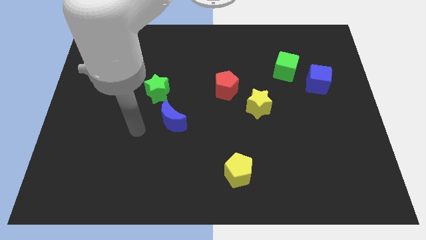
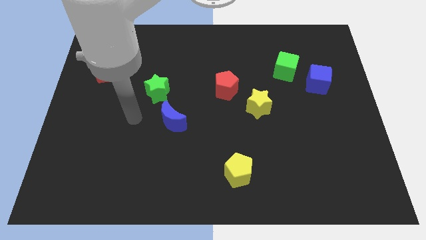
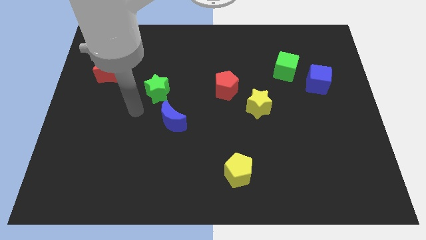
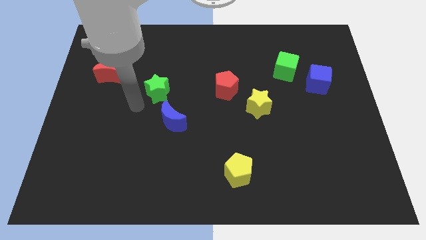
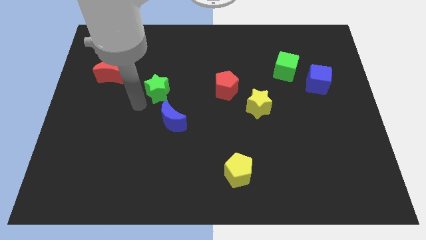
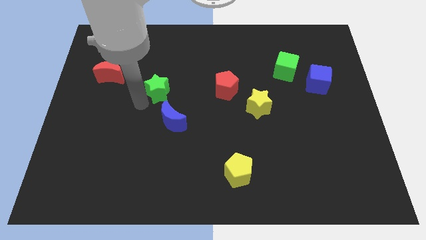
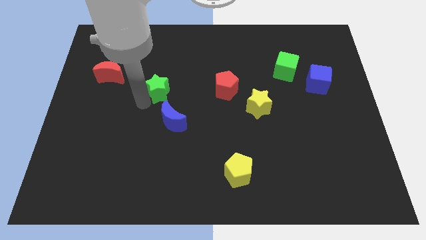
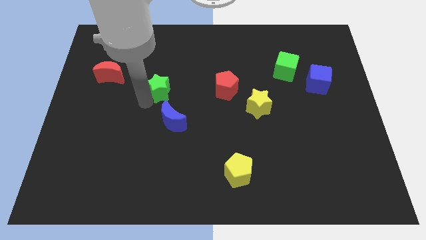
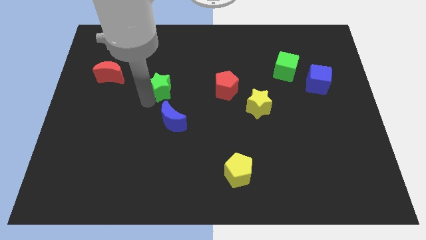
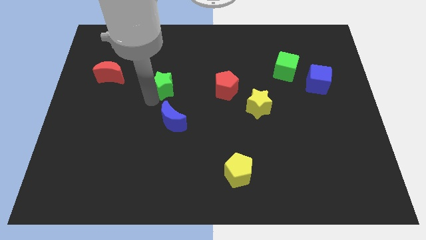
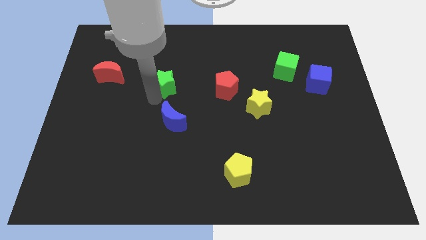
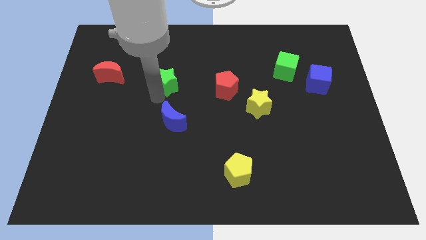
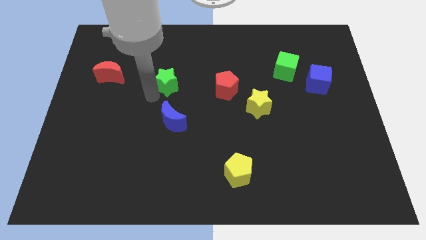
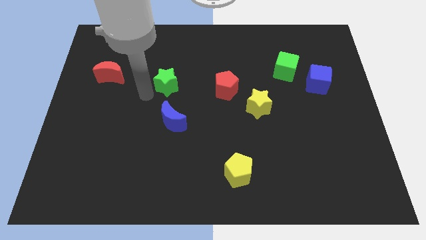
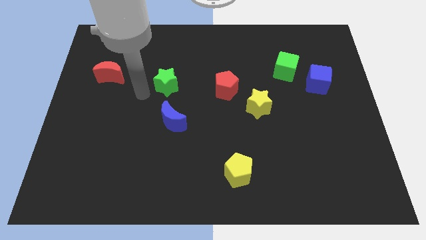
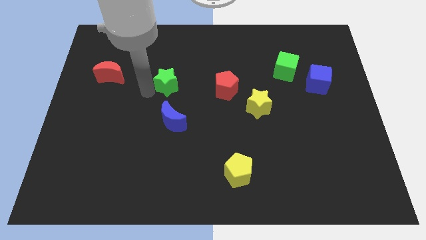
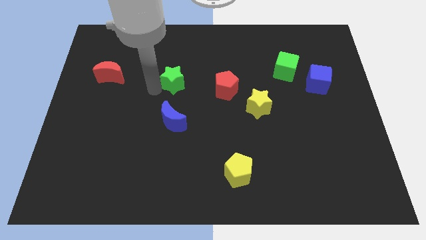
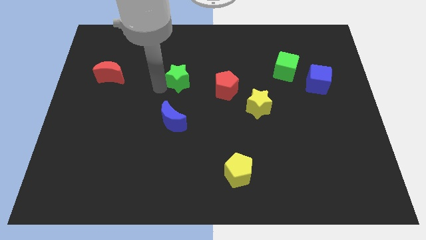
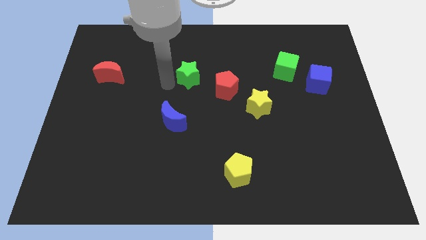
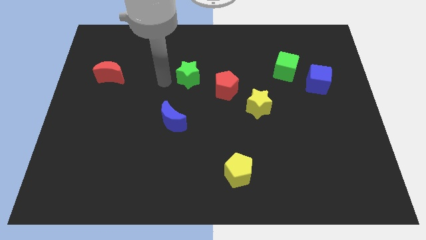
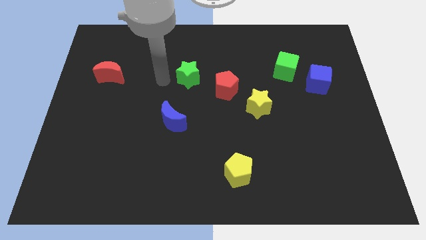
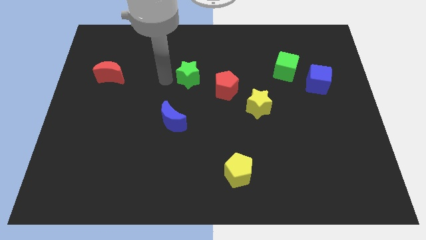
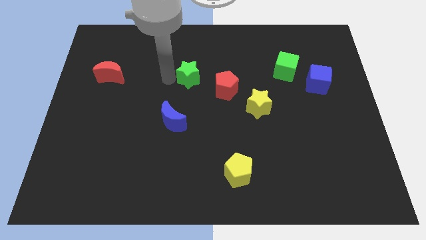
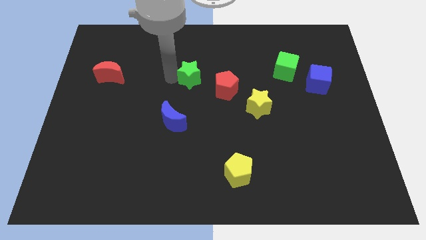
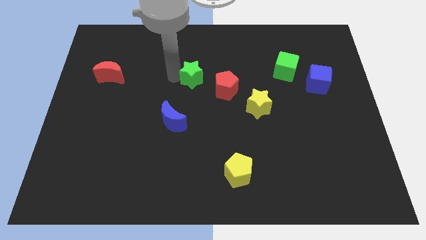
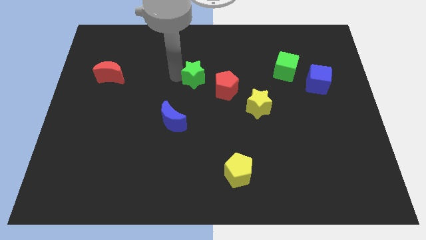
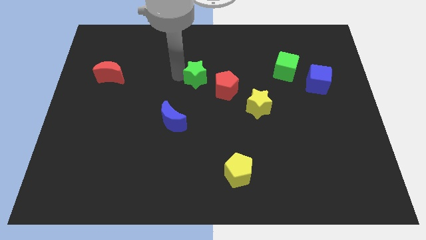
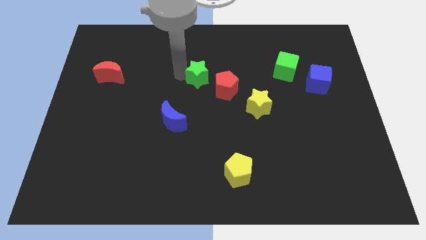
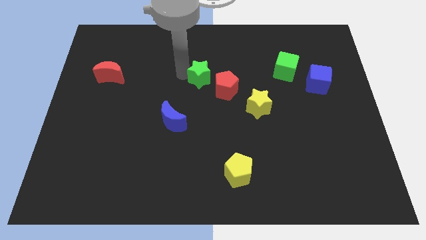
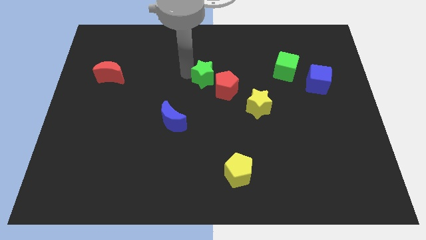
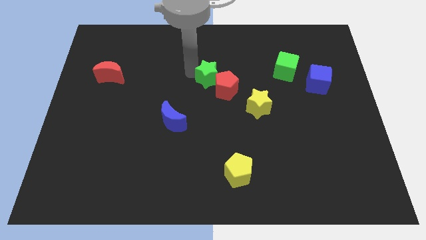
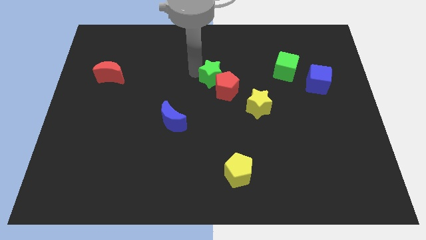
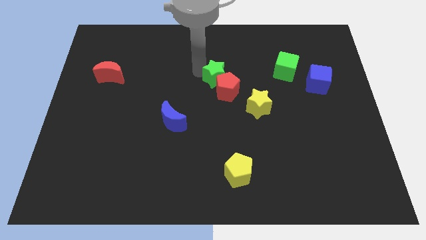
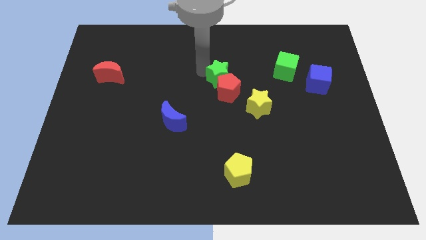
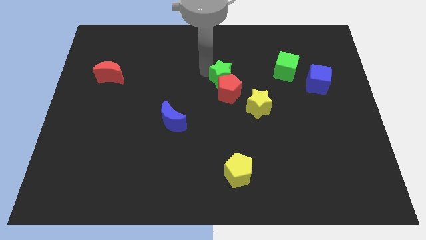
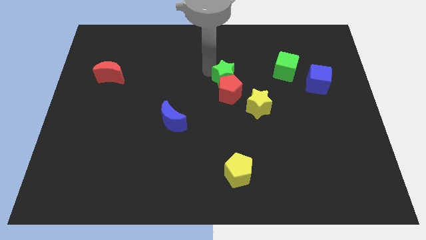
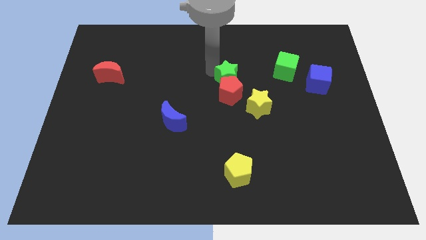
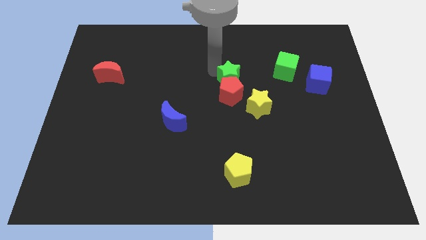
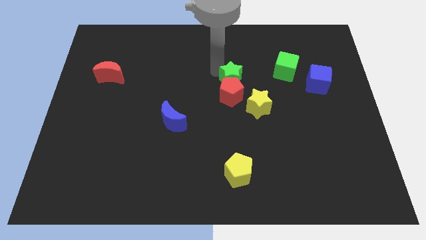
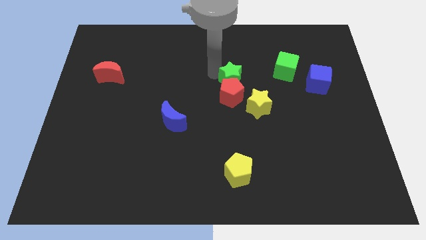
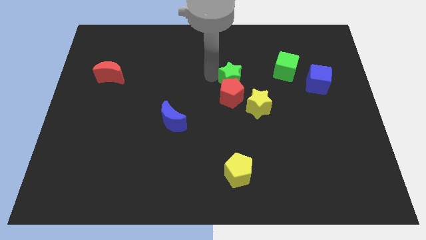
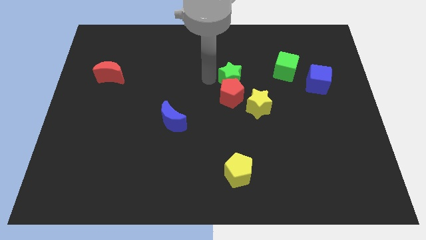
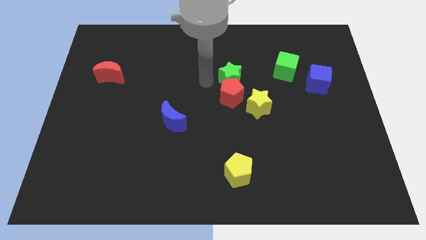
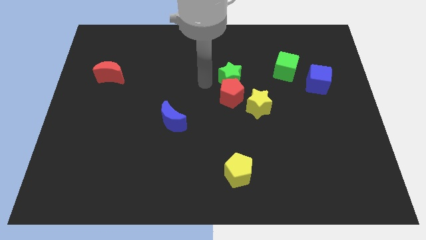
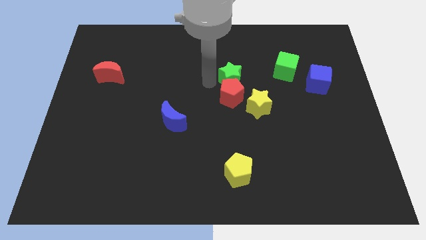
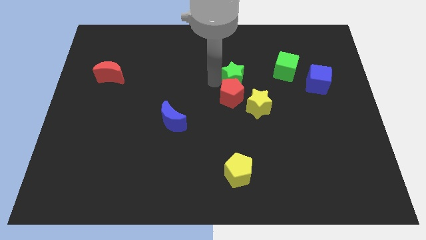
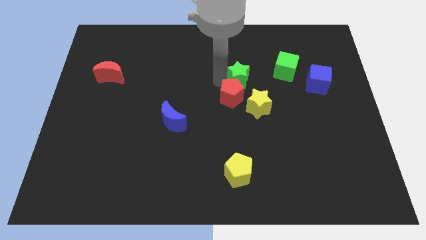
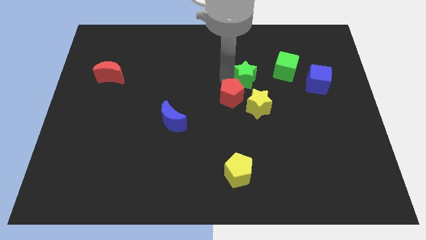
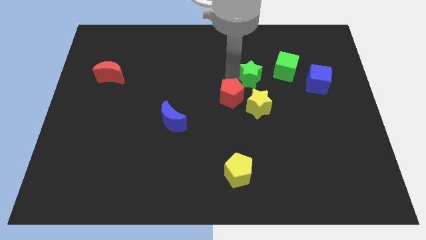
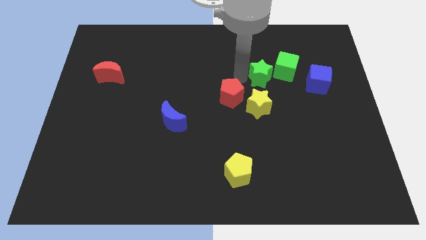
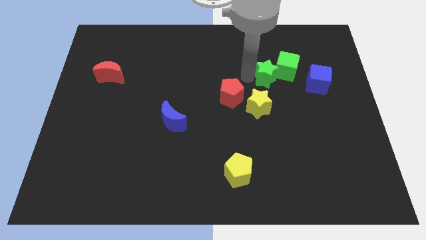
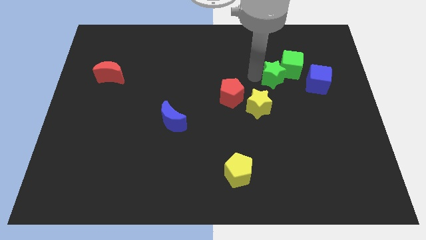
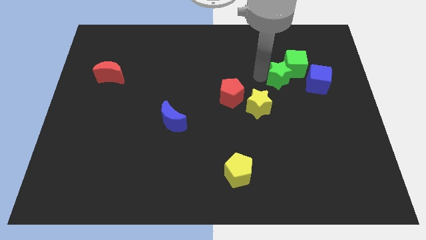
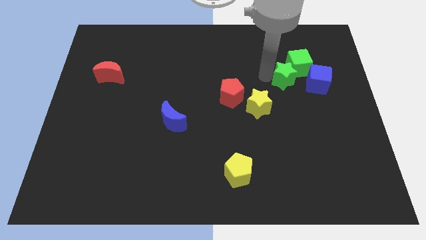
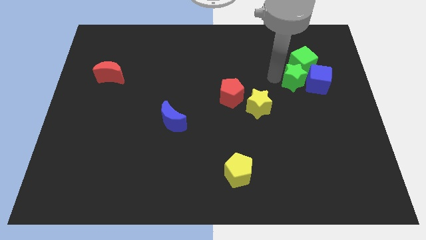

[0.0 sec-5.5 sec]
put the green star towards the blue cube

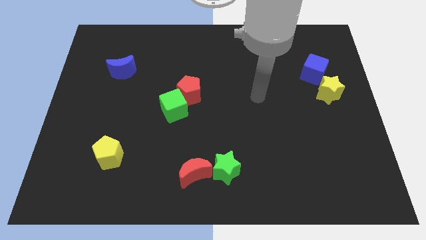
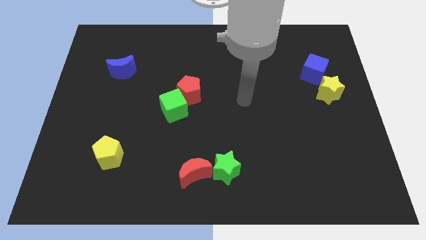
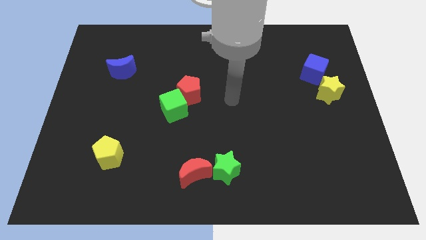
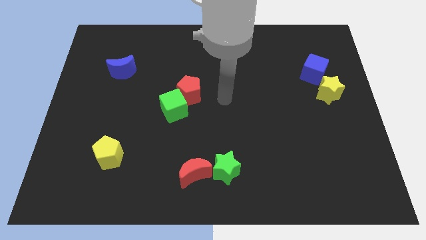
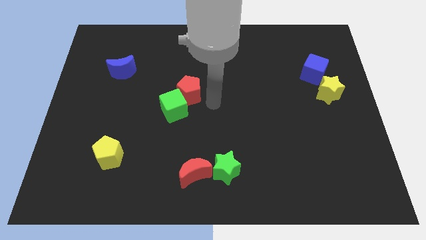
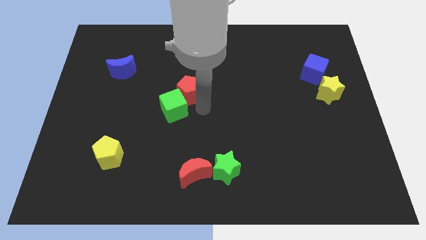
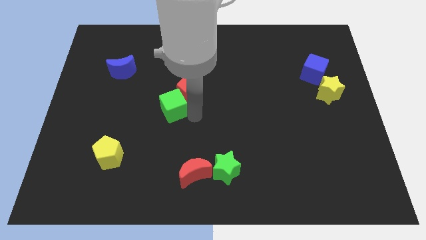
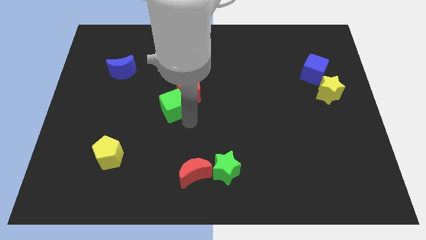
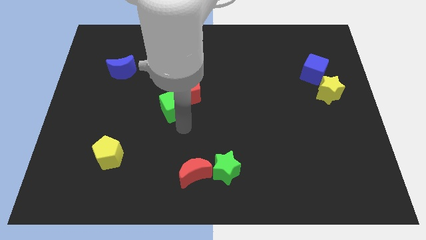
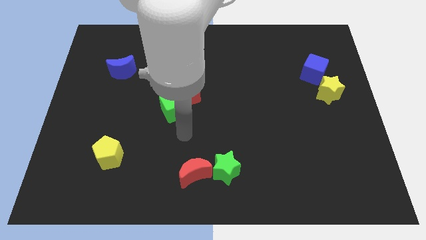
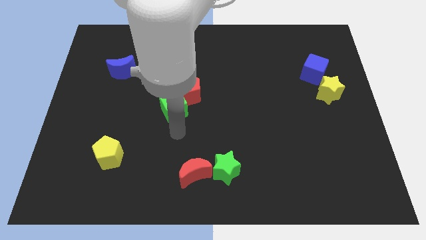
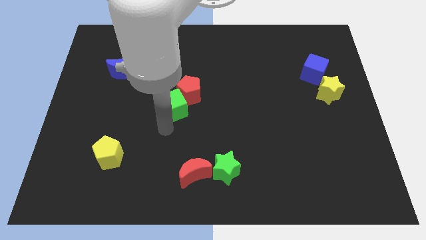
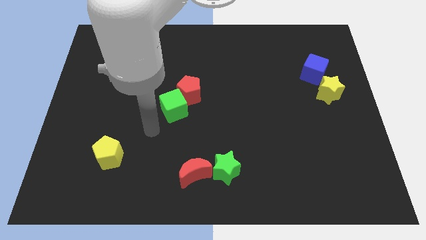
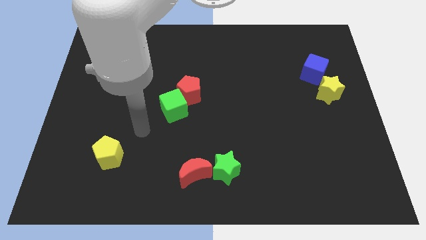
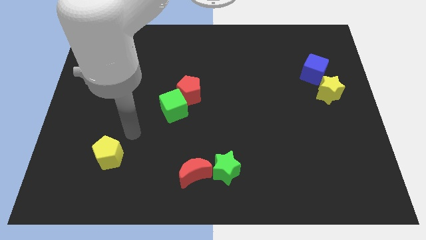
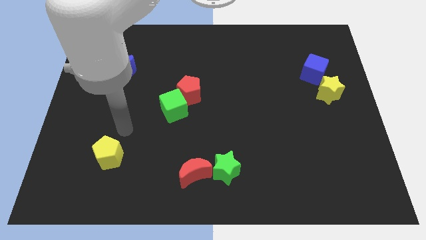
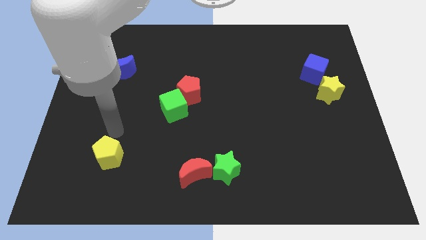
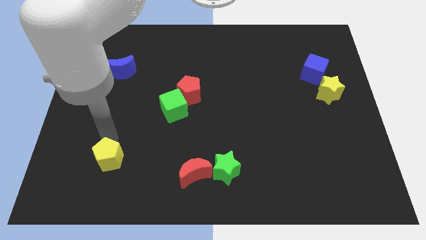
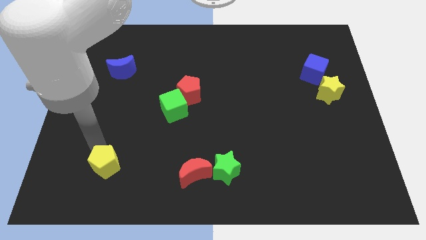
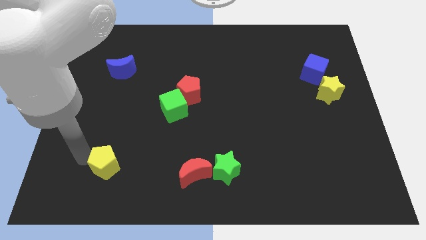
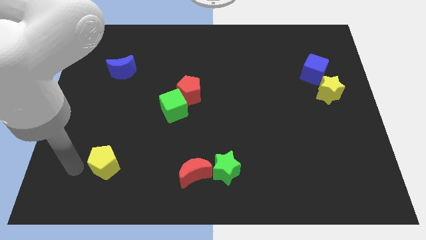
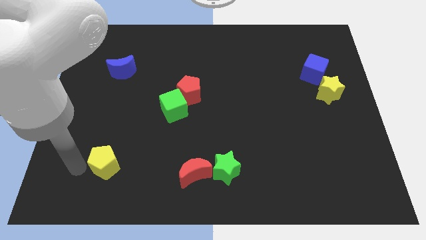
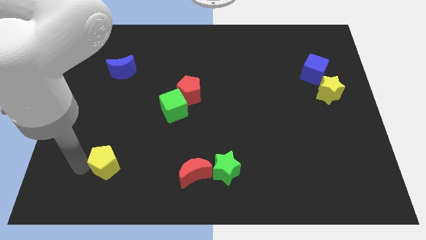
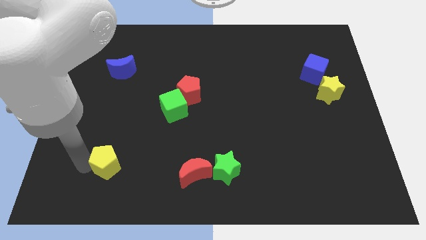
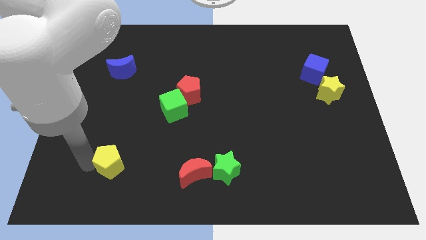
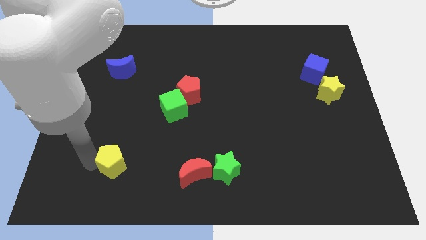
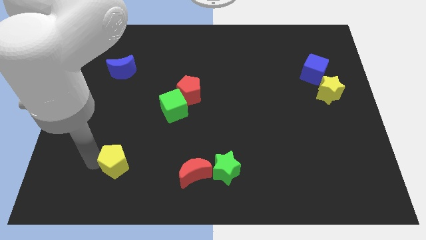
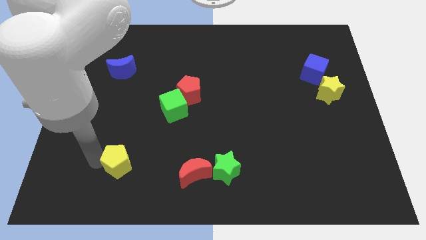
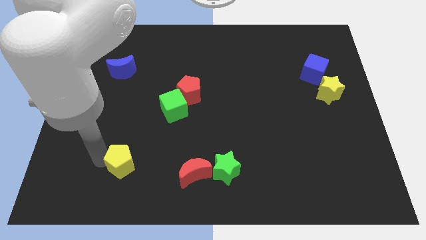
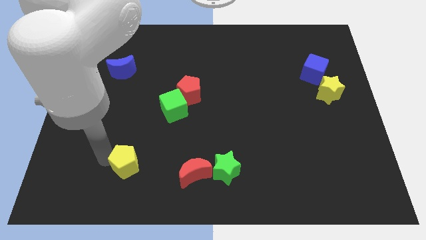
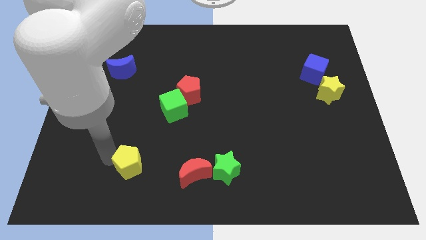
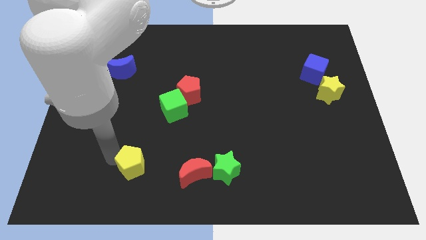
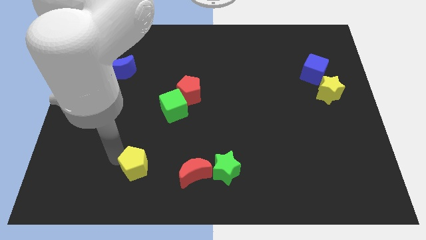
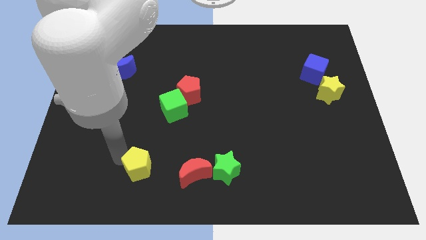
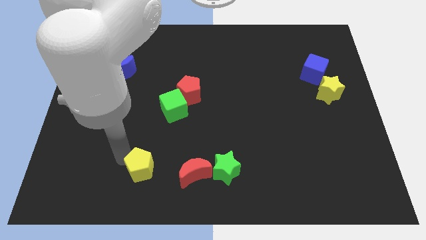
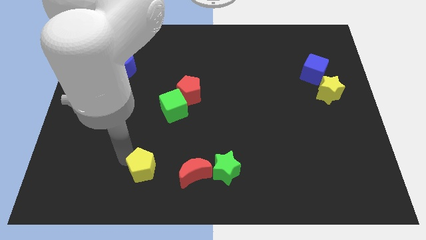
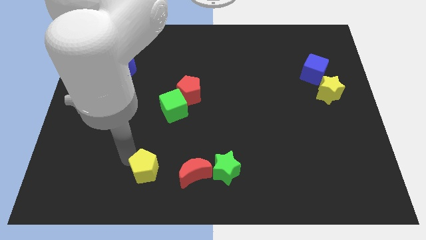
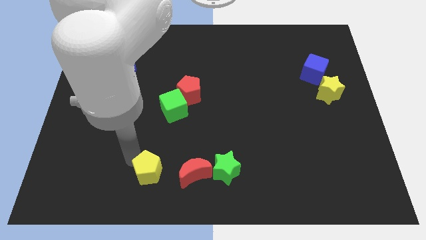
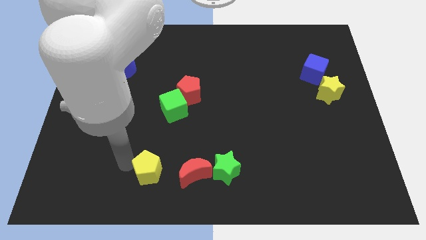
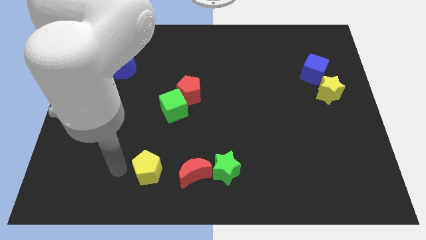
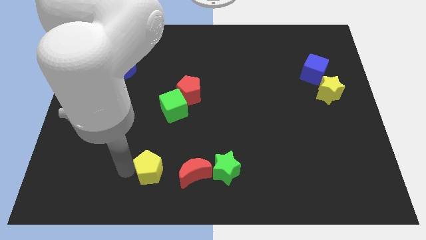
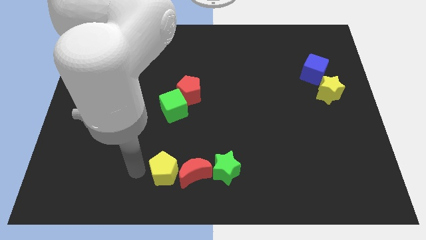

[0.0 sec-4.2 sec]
push the yellow pentagon towards the red moon
